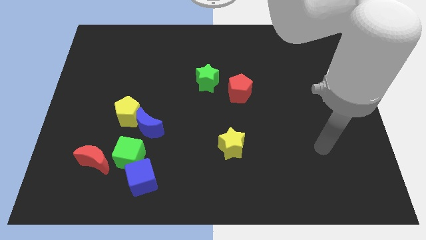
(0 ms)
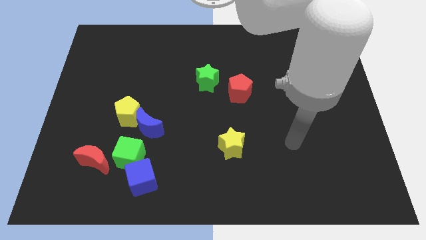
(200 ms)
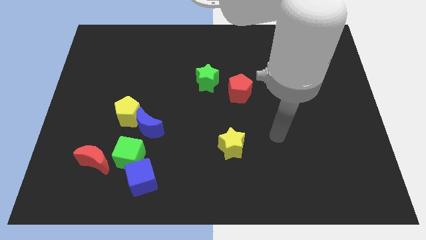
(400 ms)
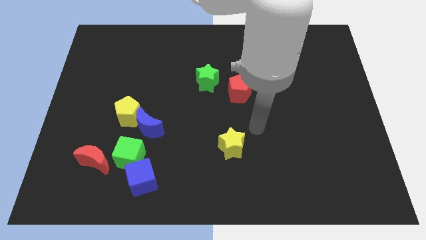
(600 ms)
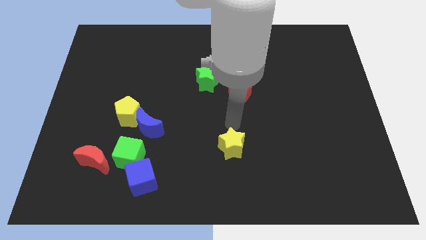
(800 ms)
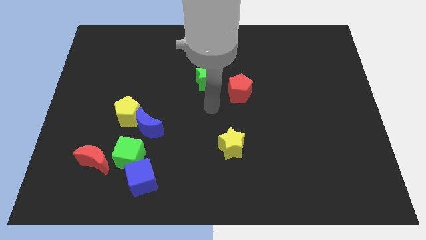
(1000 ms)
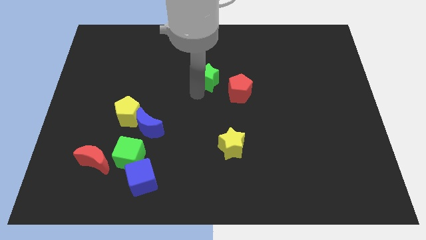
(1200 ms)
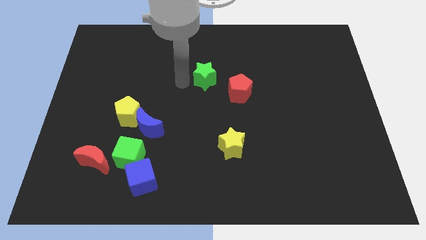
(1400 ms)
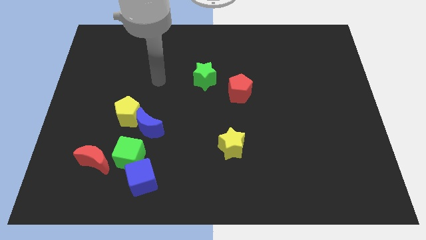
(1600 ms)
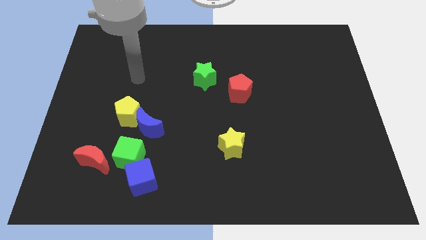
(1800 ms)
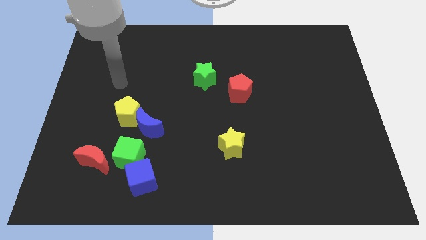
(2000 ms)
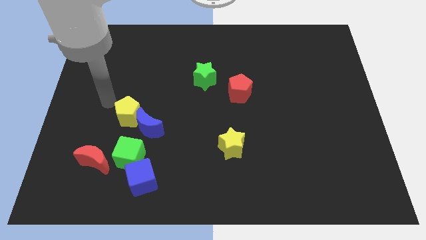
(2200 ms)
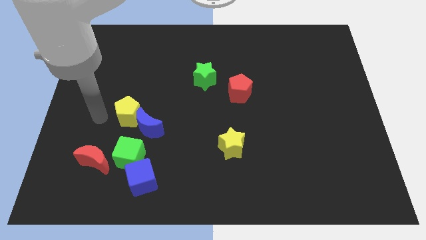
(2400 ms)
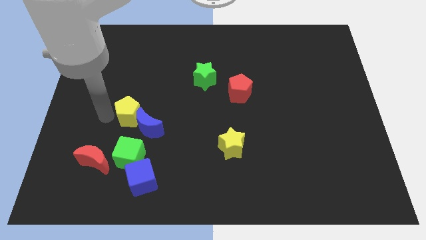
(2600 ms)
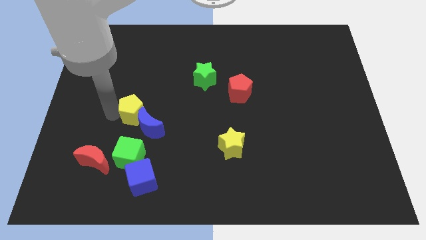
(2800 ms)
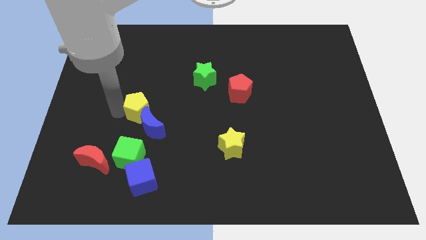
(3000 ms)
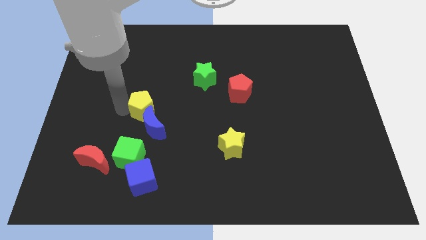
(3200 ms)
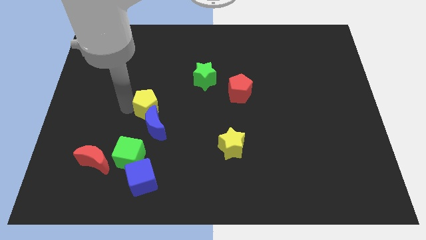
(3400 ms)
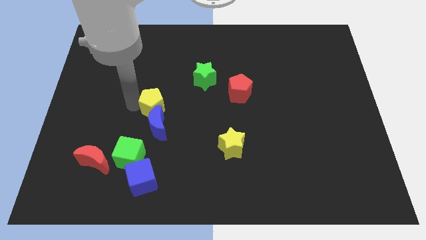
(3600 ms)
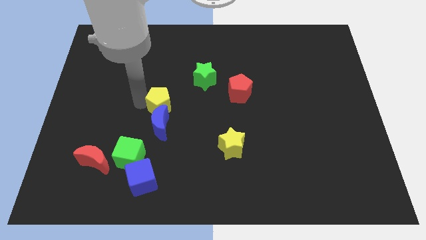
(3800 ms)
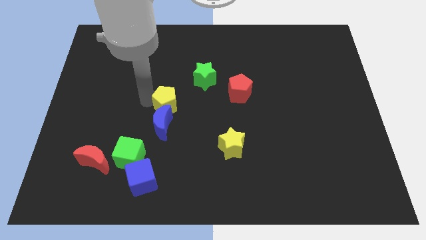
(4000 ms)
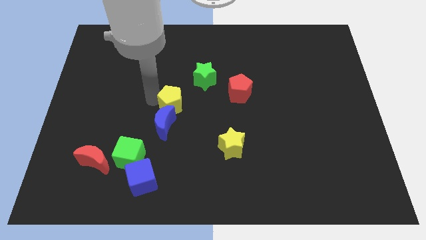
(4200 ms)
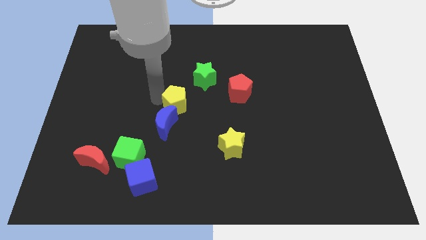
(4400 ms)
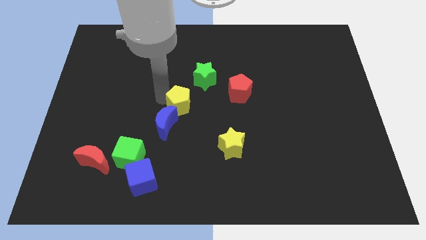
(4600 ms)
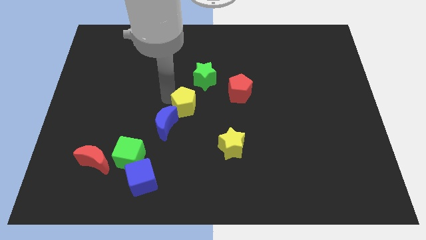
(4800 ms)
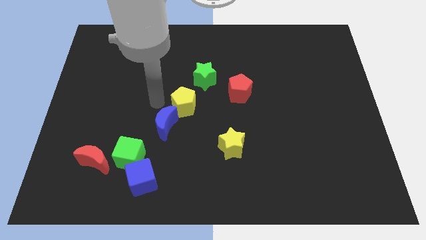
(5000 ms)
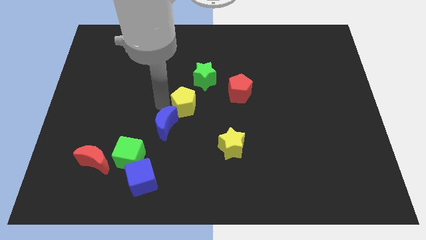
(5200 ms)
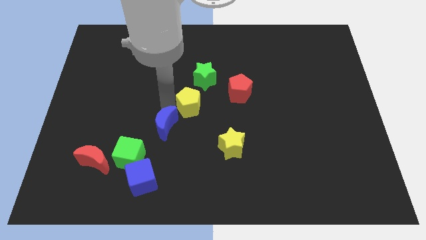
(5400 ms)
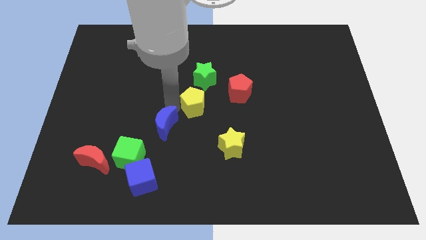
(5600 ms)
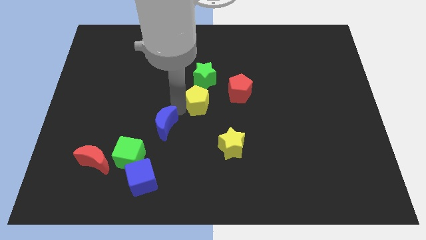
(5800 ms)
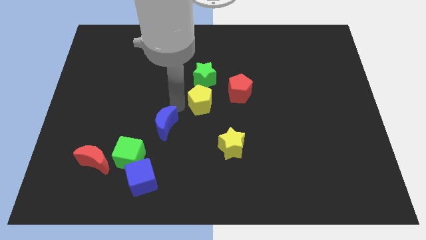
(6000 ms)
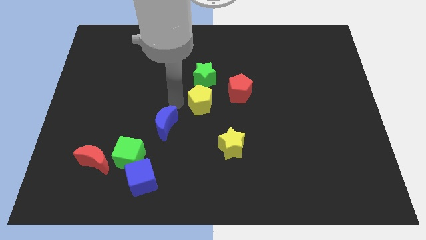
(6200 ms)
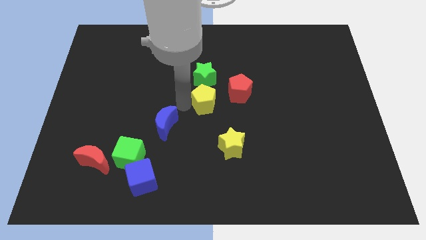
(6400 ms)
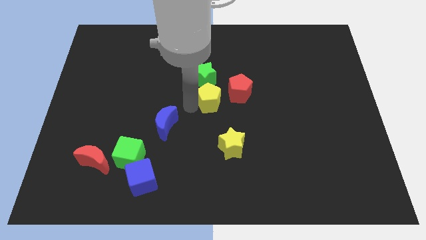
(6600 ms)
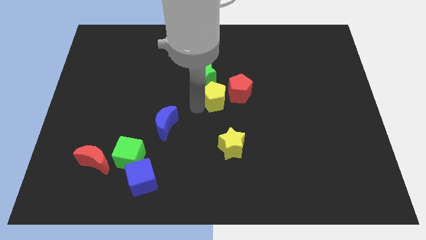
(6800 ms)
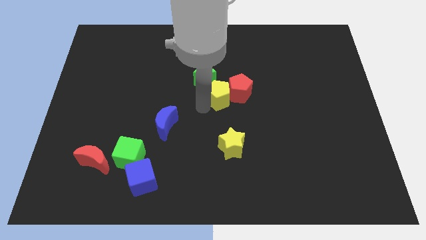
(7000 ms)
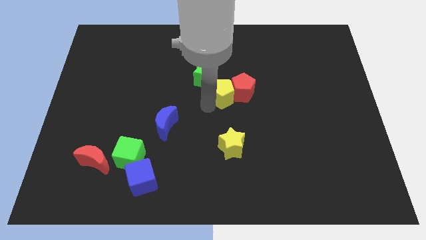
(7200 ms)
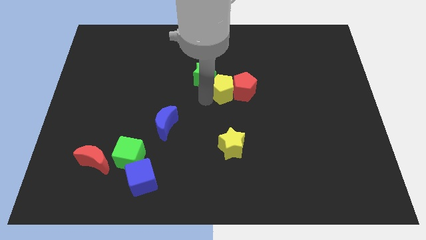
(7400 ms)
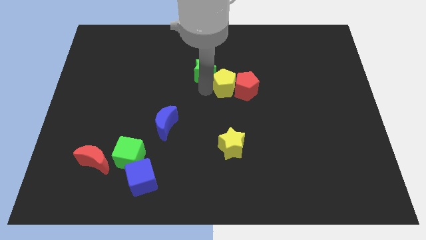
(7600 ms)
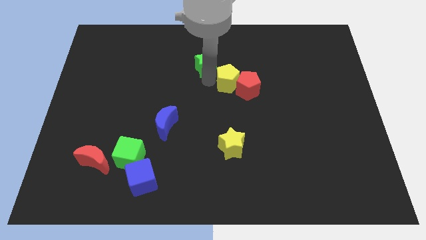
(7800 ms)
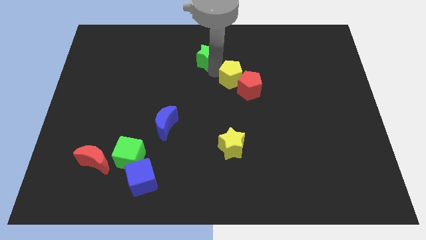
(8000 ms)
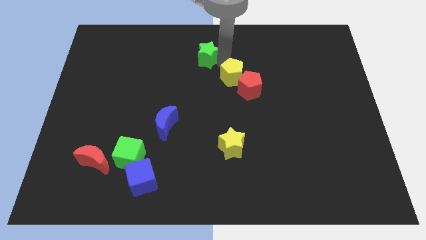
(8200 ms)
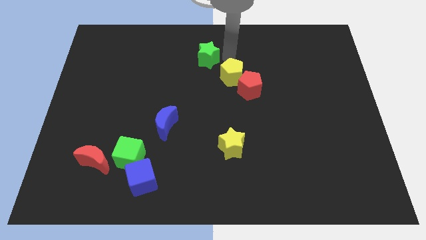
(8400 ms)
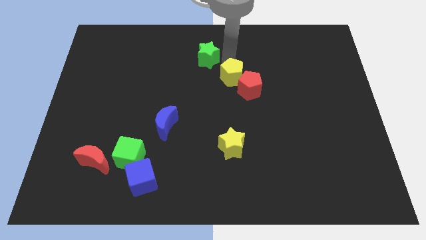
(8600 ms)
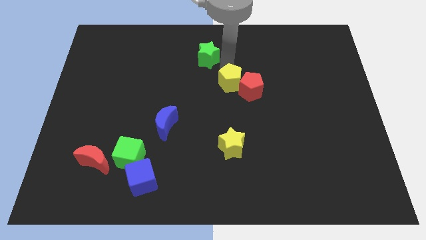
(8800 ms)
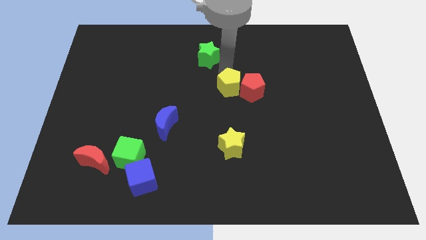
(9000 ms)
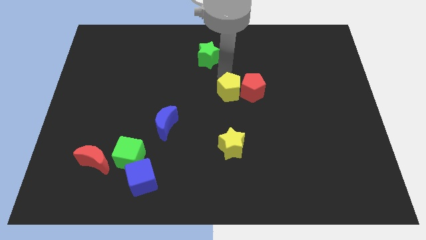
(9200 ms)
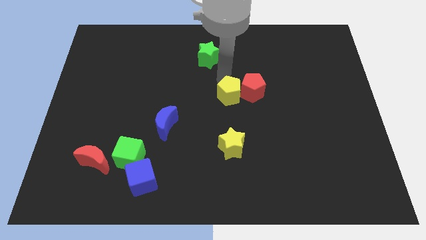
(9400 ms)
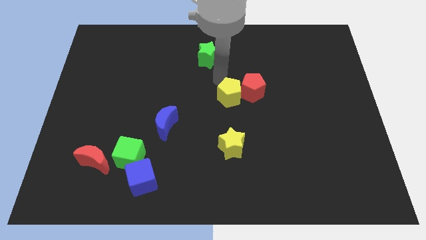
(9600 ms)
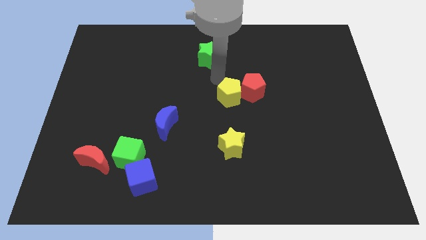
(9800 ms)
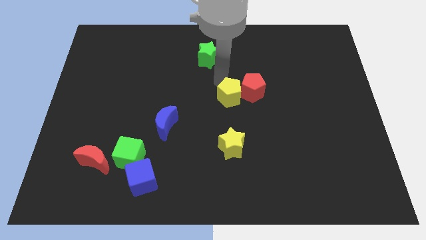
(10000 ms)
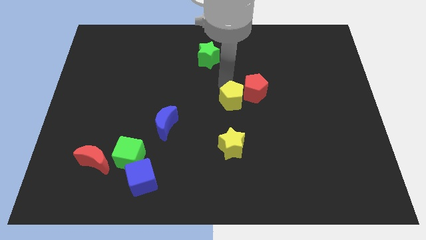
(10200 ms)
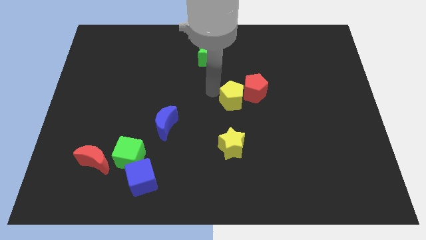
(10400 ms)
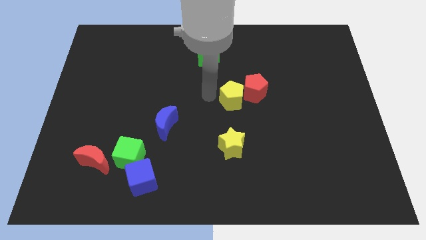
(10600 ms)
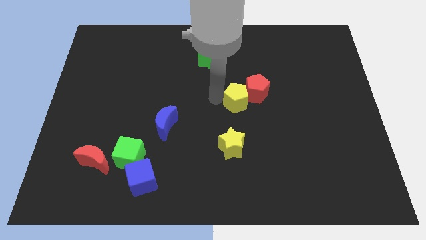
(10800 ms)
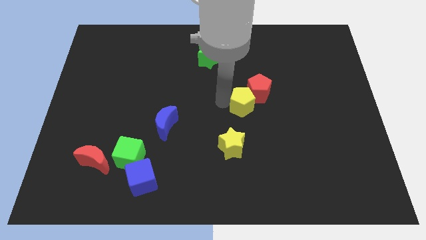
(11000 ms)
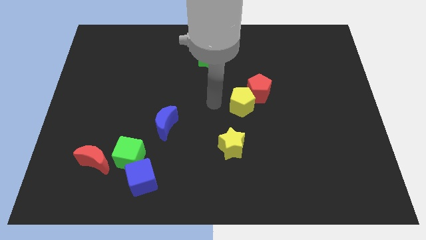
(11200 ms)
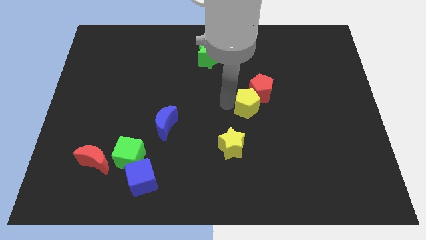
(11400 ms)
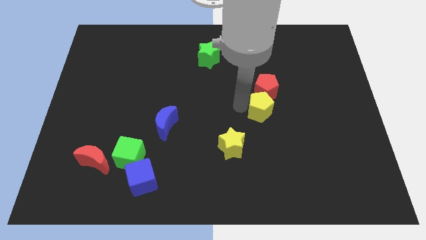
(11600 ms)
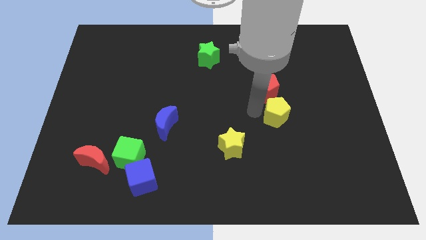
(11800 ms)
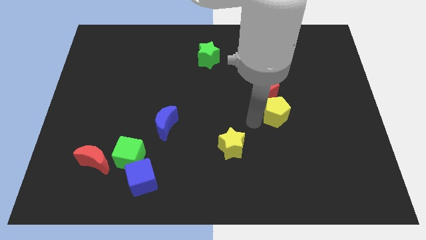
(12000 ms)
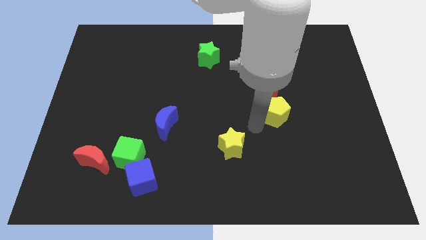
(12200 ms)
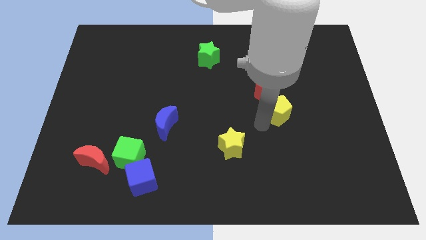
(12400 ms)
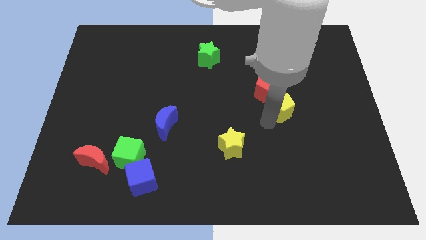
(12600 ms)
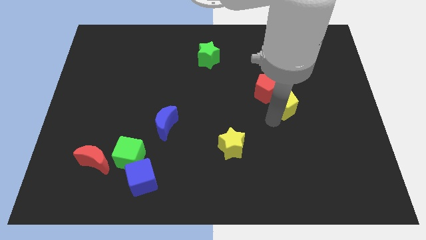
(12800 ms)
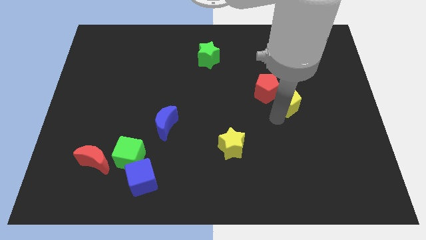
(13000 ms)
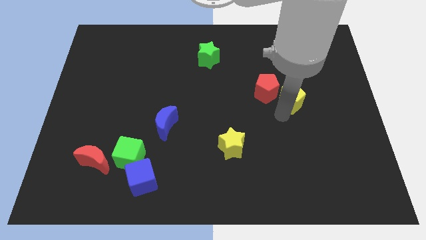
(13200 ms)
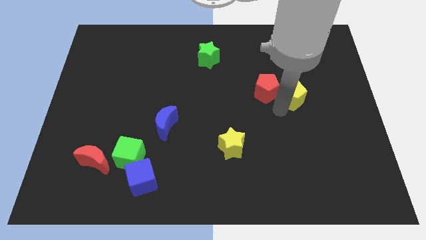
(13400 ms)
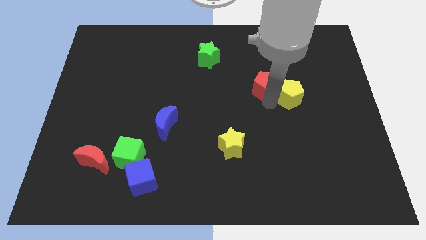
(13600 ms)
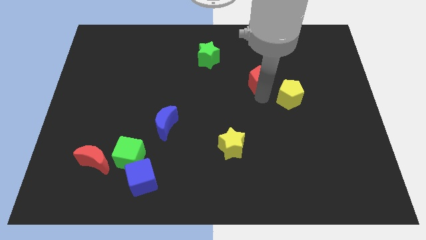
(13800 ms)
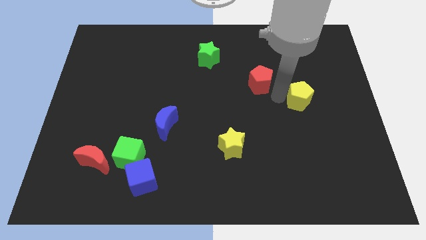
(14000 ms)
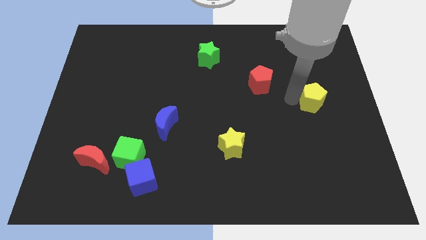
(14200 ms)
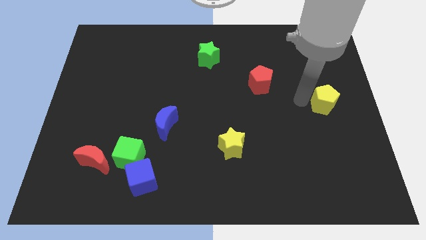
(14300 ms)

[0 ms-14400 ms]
push the yellow pentagon to the center right
